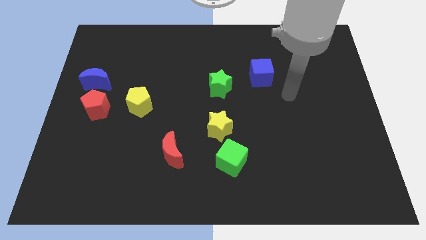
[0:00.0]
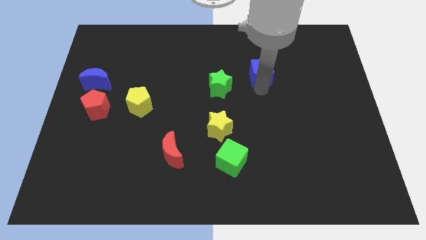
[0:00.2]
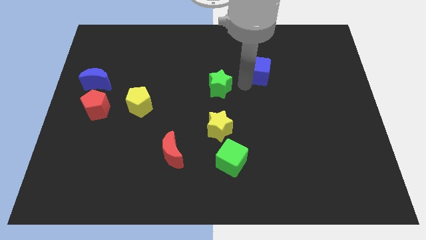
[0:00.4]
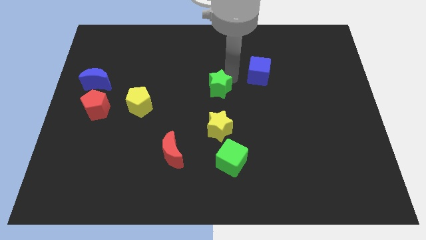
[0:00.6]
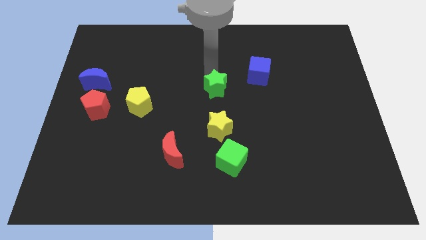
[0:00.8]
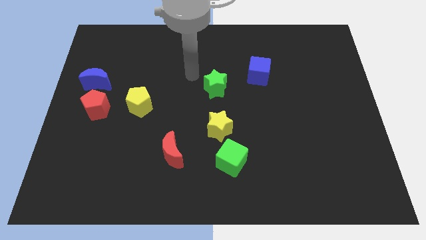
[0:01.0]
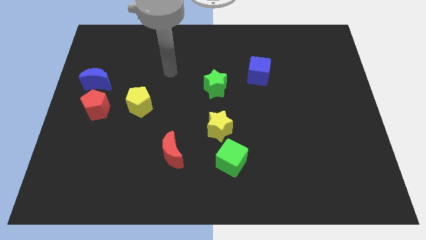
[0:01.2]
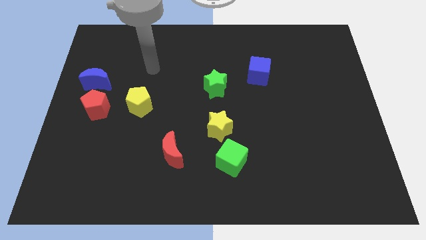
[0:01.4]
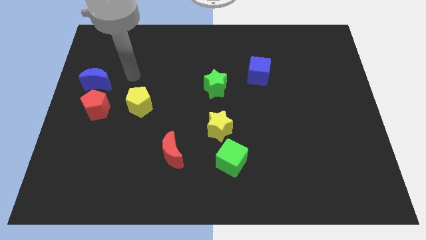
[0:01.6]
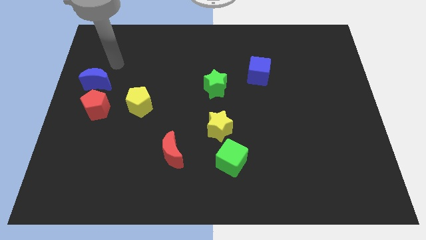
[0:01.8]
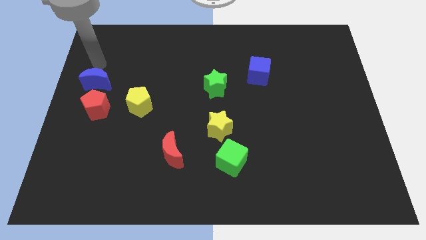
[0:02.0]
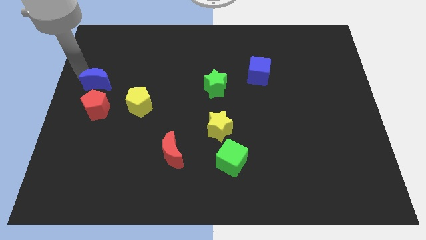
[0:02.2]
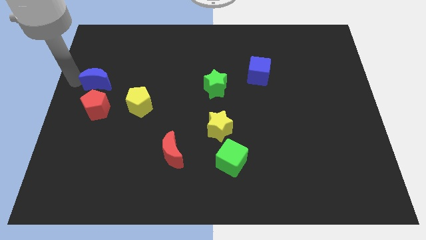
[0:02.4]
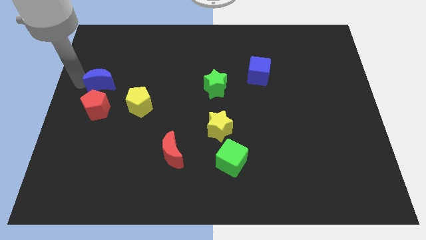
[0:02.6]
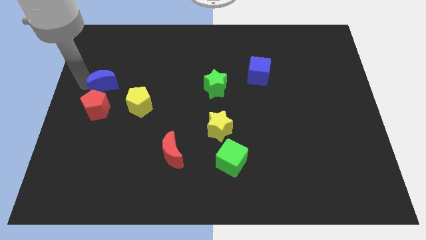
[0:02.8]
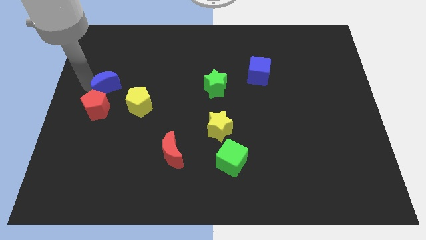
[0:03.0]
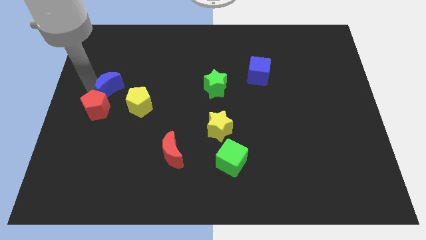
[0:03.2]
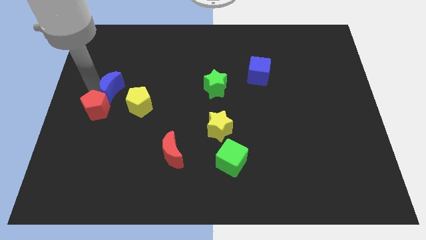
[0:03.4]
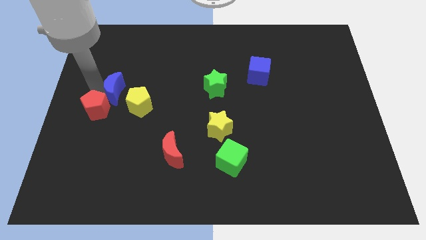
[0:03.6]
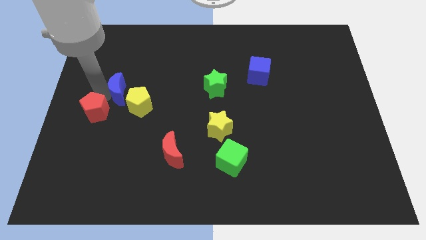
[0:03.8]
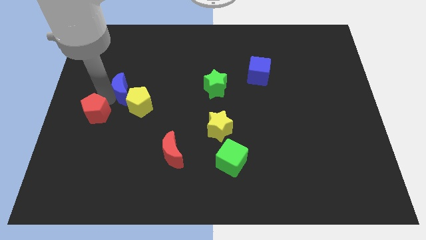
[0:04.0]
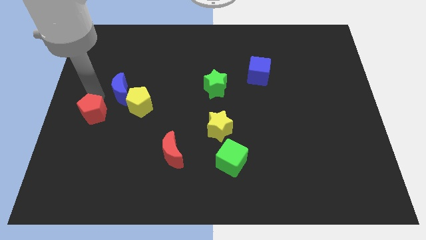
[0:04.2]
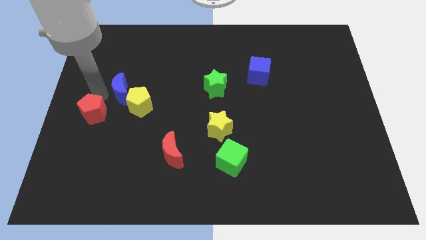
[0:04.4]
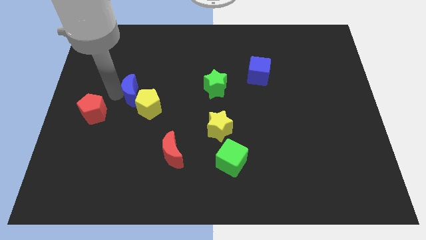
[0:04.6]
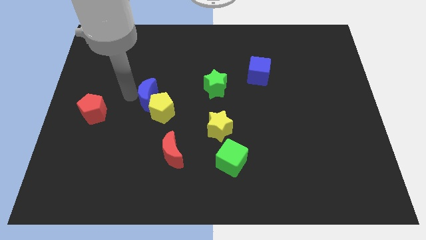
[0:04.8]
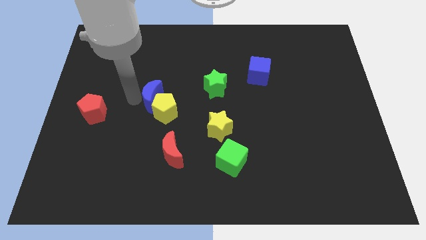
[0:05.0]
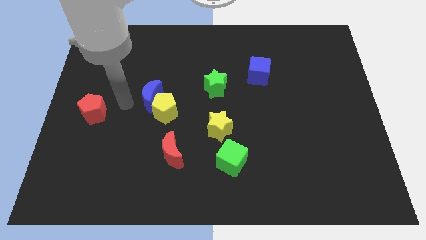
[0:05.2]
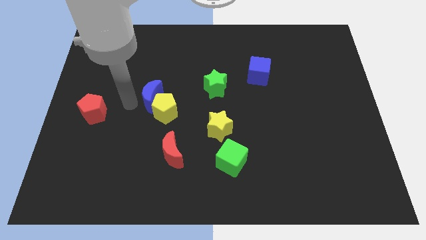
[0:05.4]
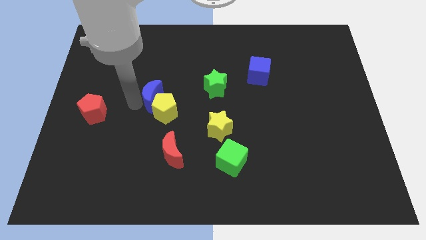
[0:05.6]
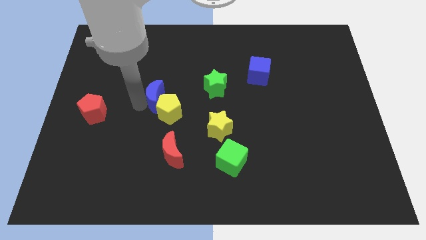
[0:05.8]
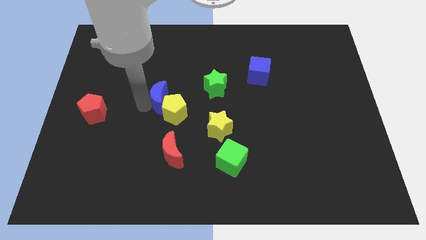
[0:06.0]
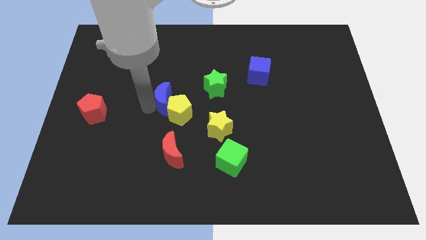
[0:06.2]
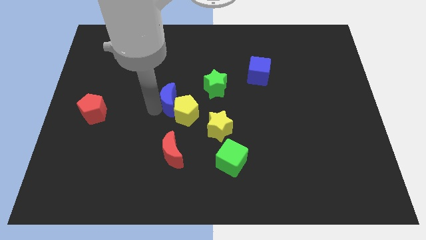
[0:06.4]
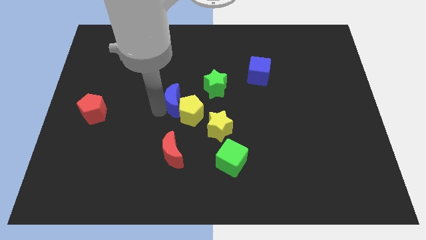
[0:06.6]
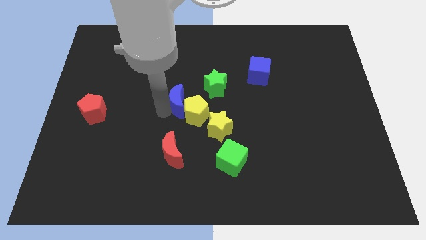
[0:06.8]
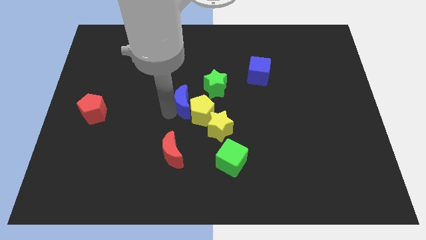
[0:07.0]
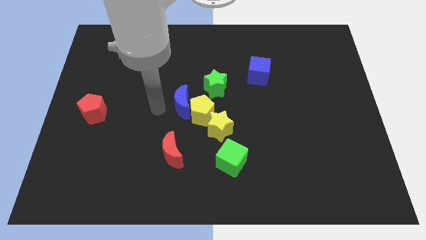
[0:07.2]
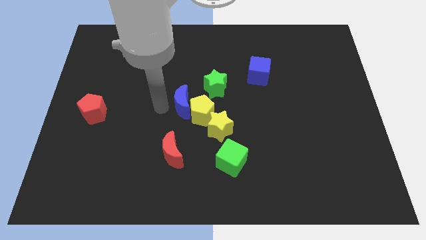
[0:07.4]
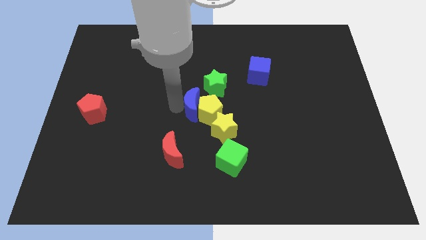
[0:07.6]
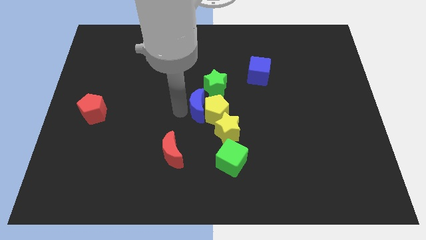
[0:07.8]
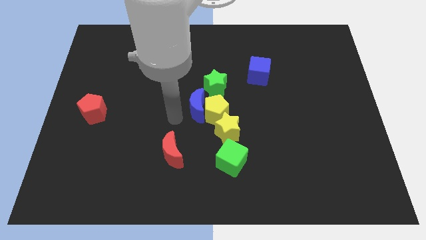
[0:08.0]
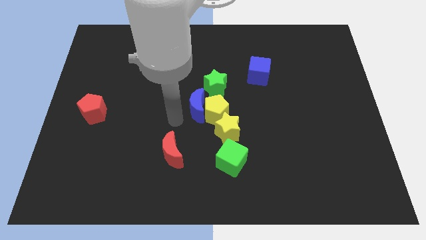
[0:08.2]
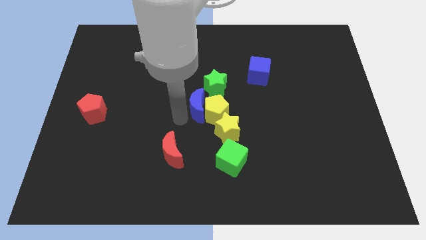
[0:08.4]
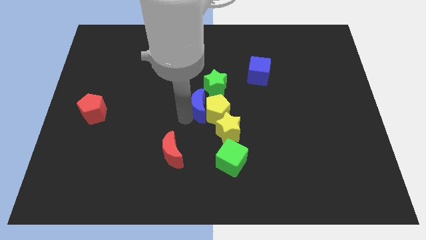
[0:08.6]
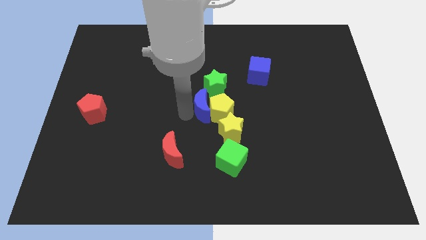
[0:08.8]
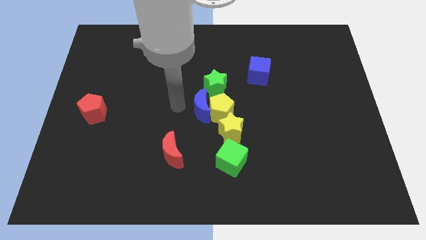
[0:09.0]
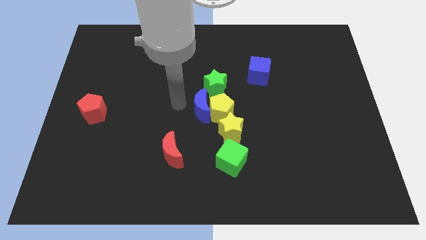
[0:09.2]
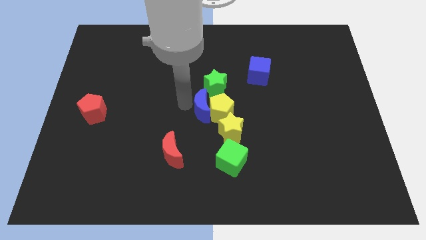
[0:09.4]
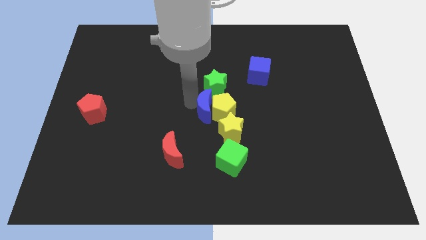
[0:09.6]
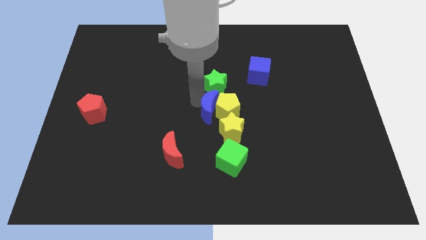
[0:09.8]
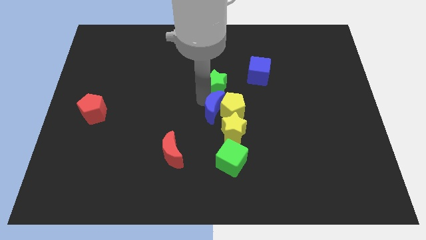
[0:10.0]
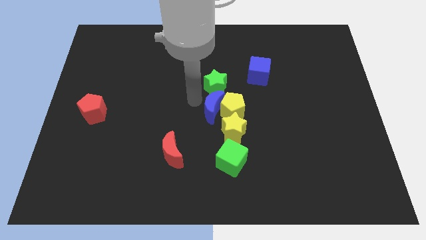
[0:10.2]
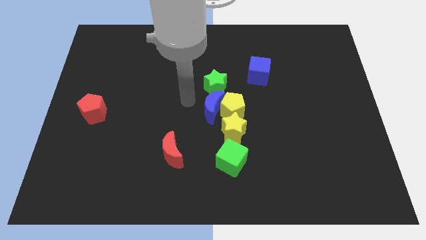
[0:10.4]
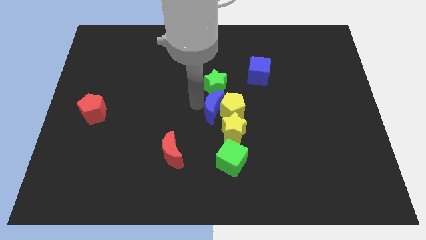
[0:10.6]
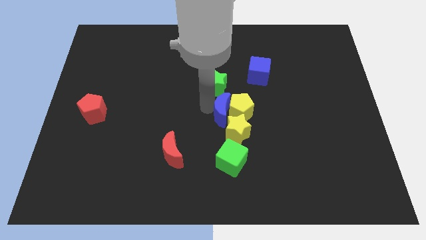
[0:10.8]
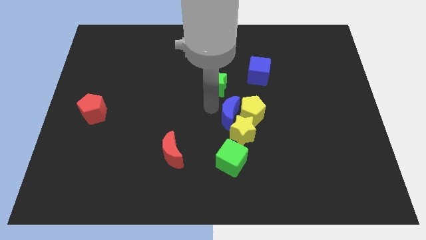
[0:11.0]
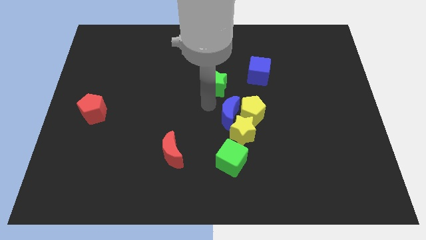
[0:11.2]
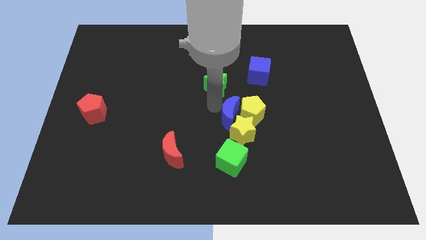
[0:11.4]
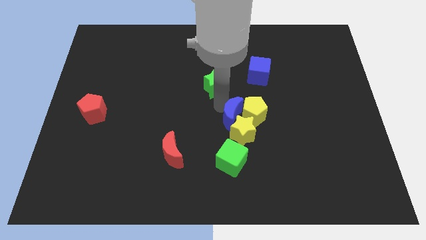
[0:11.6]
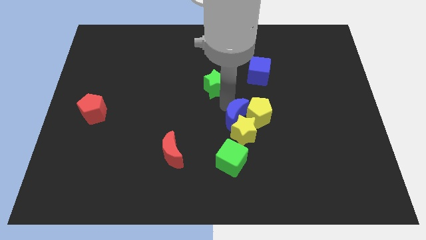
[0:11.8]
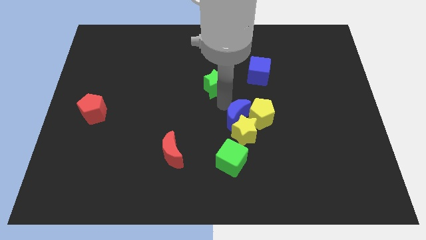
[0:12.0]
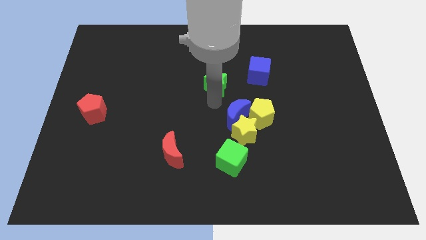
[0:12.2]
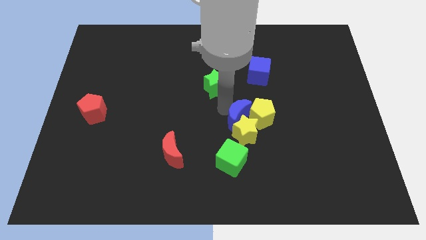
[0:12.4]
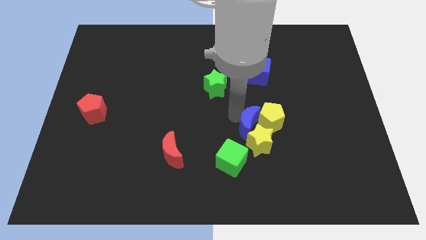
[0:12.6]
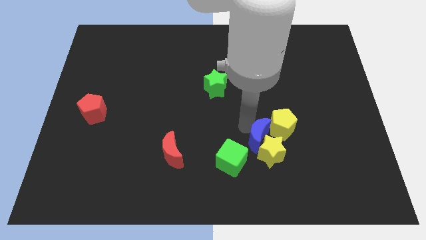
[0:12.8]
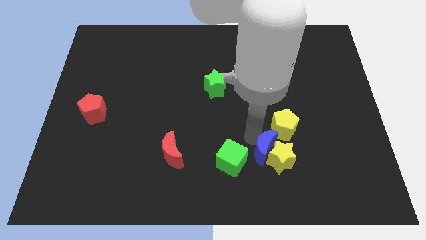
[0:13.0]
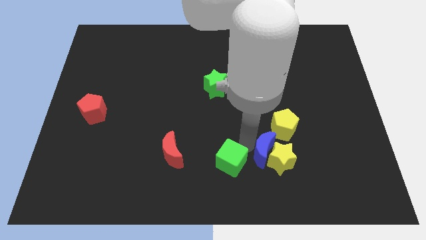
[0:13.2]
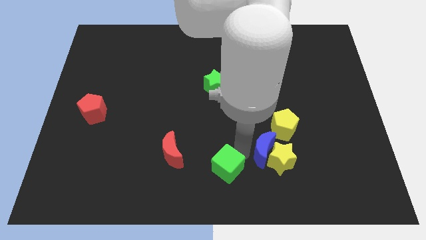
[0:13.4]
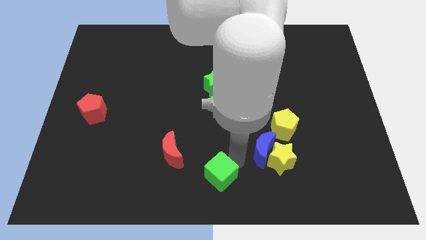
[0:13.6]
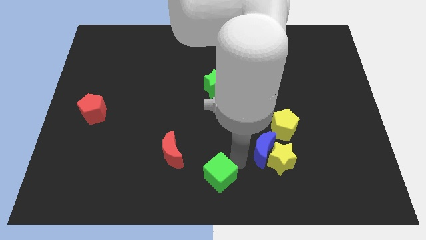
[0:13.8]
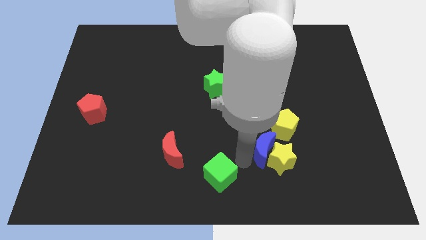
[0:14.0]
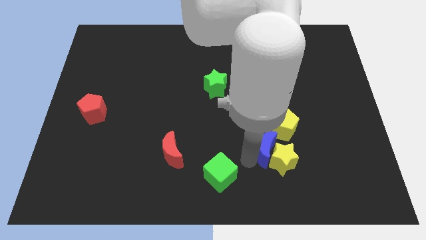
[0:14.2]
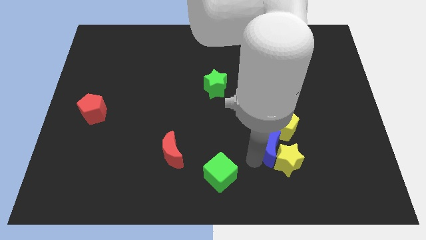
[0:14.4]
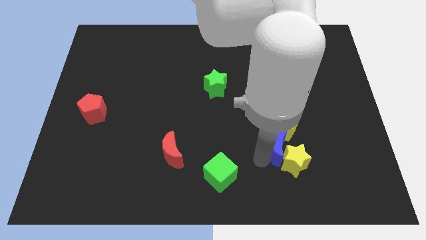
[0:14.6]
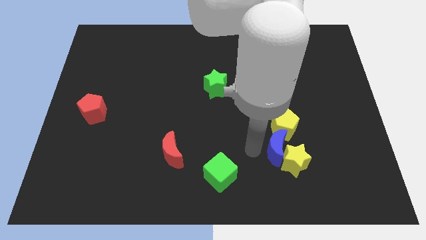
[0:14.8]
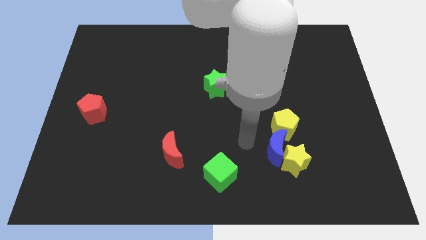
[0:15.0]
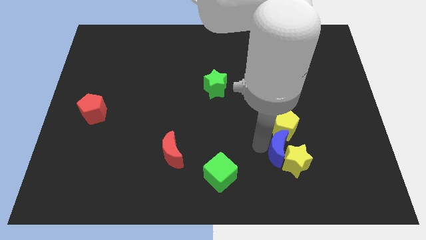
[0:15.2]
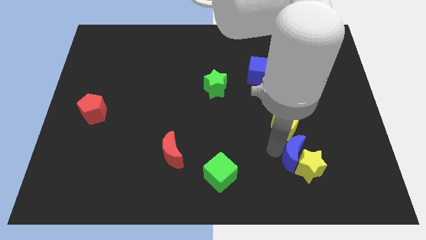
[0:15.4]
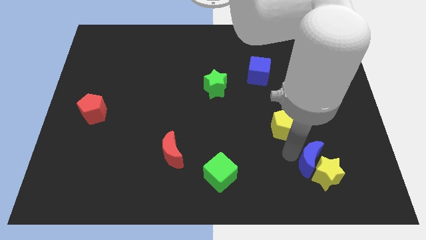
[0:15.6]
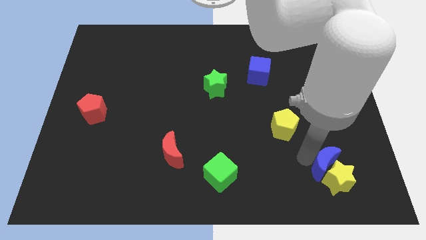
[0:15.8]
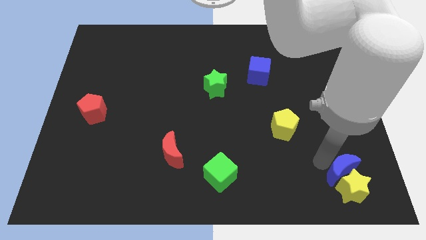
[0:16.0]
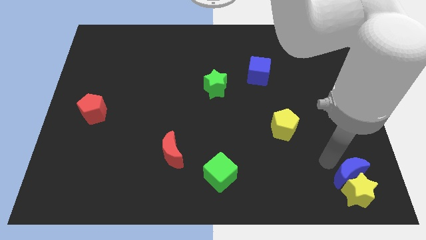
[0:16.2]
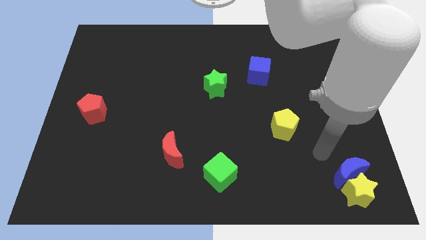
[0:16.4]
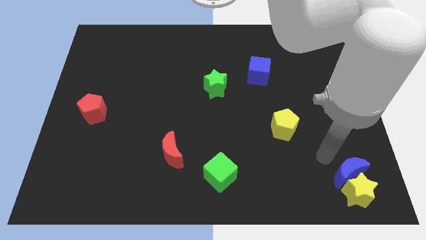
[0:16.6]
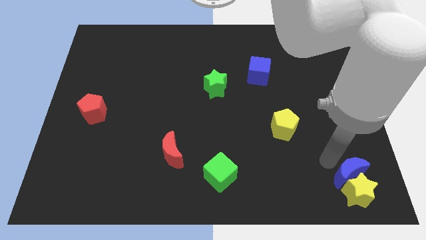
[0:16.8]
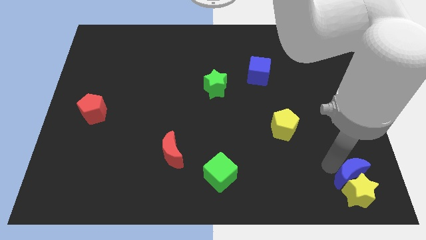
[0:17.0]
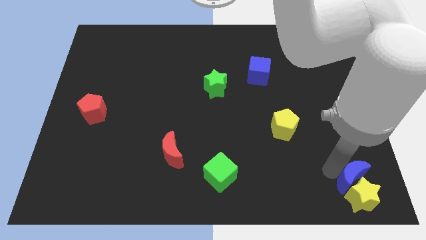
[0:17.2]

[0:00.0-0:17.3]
slide the blue moon to the lower right corner
